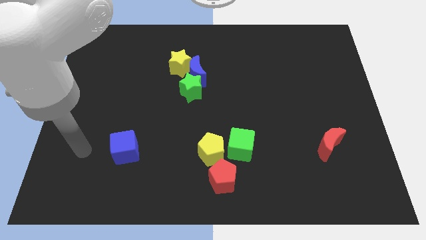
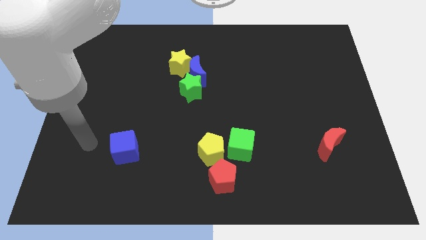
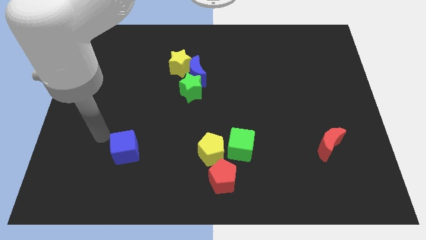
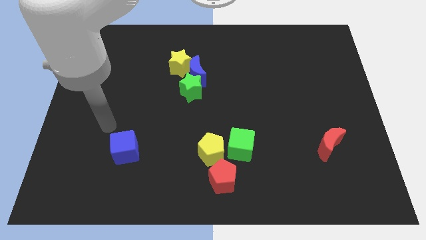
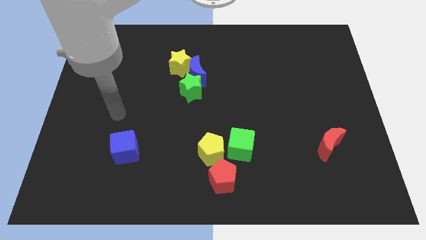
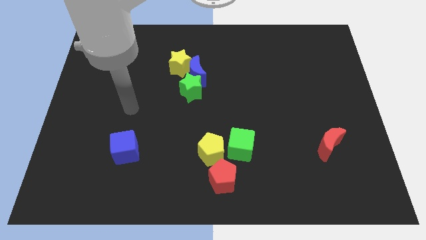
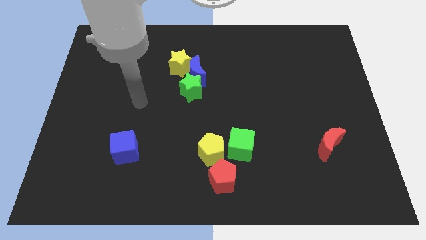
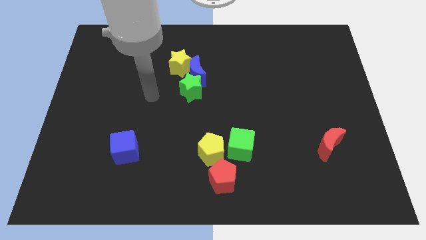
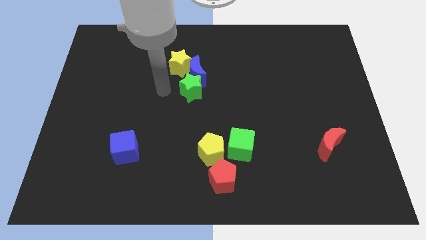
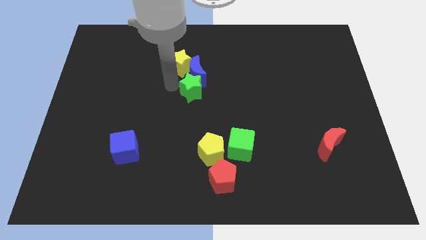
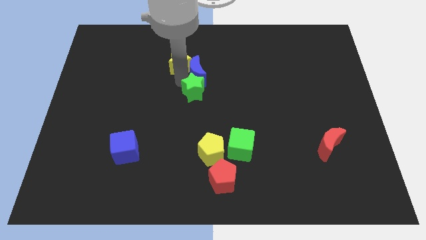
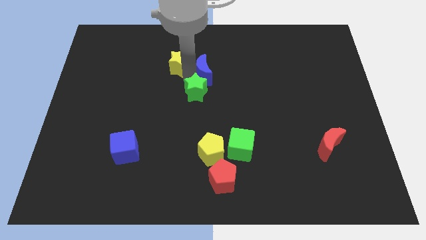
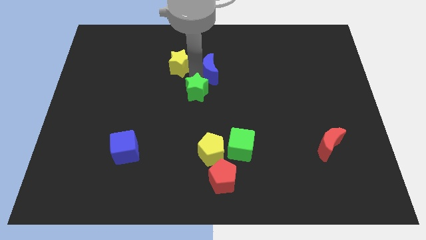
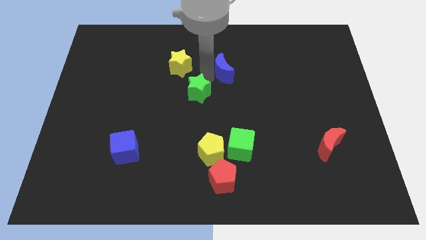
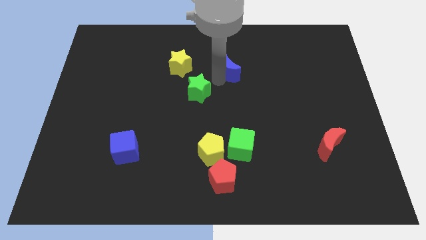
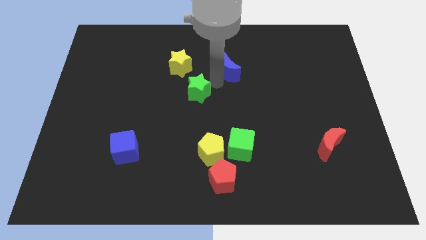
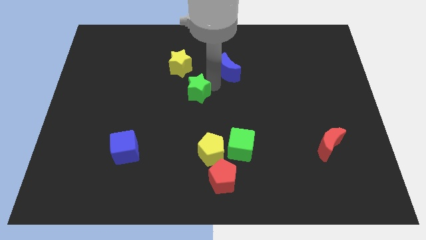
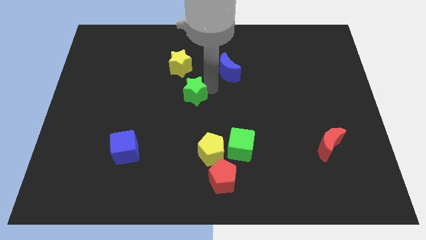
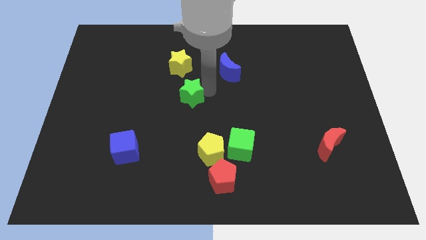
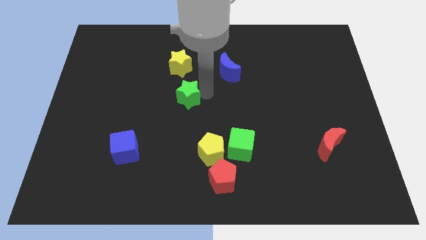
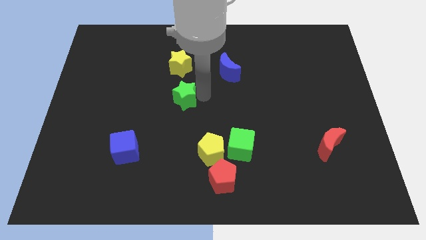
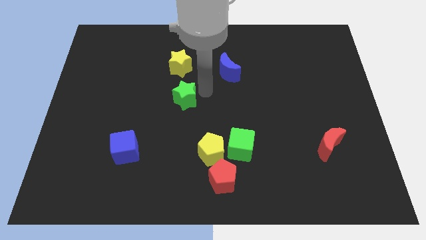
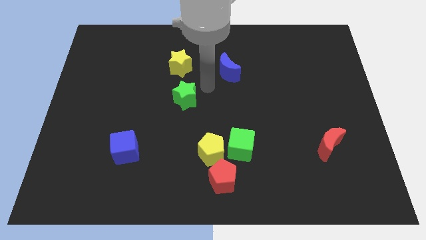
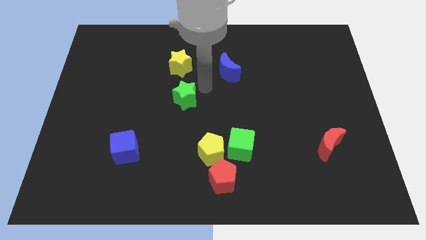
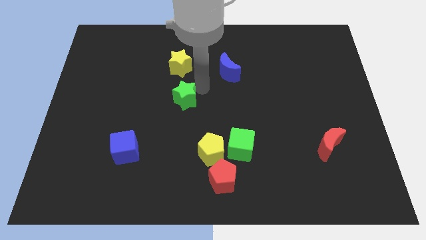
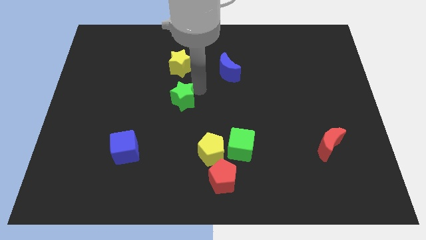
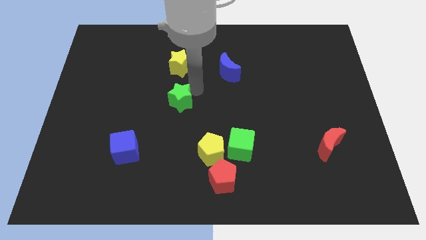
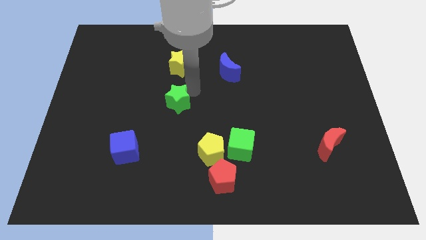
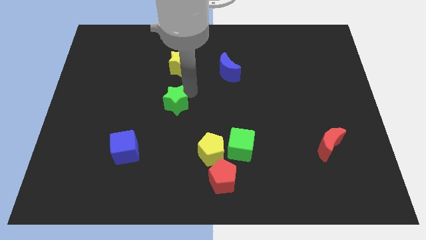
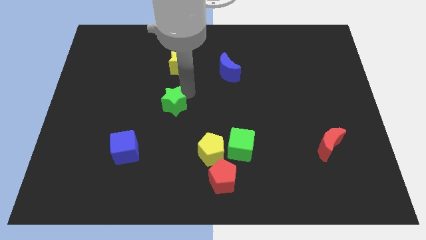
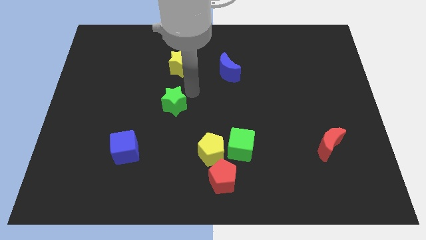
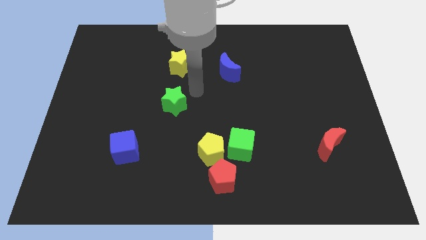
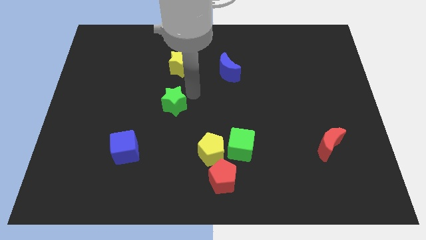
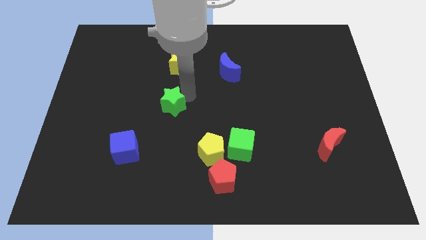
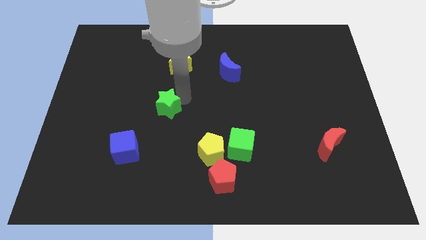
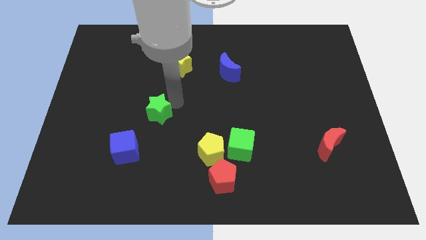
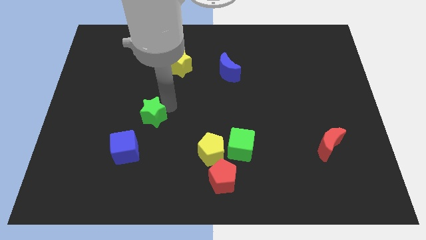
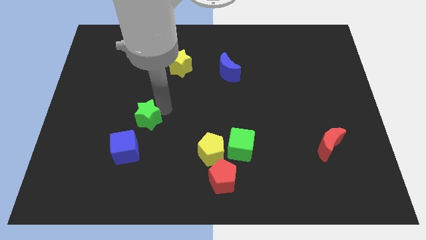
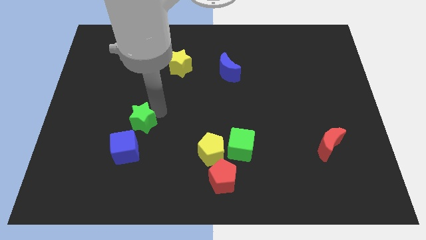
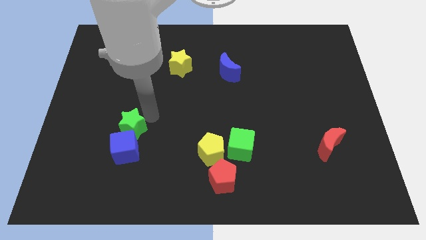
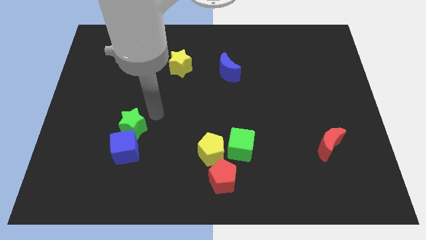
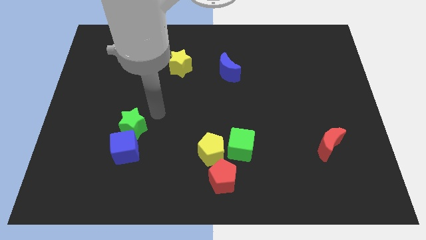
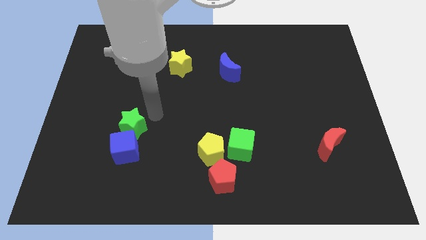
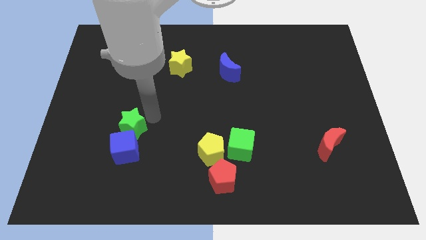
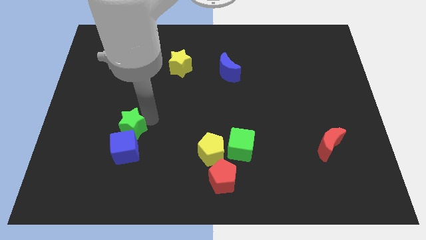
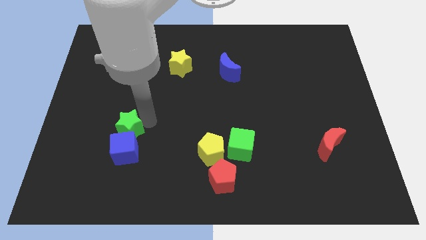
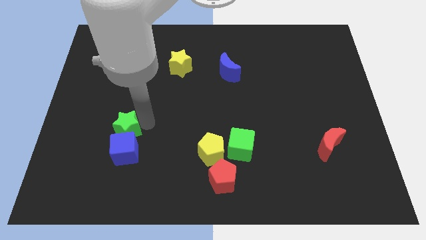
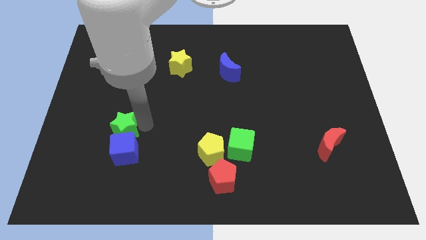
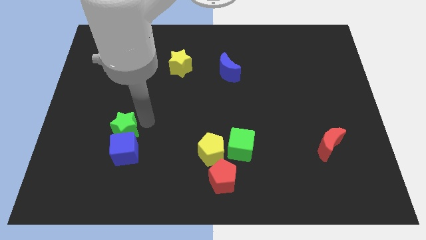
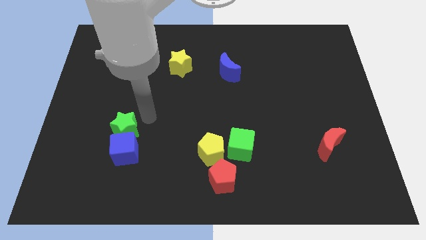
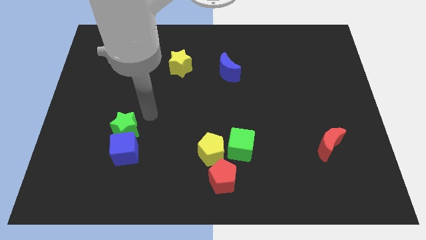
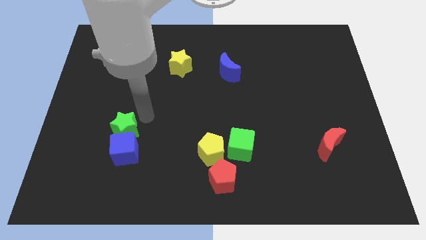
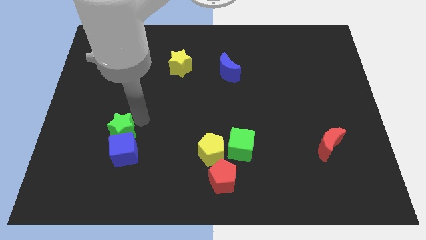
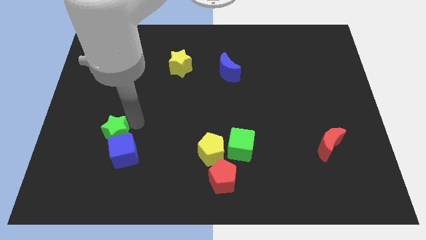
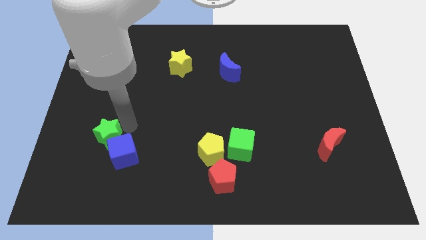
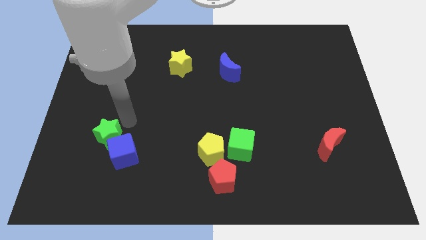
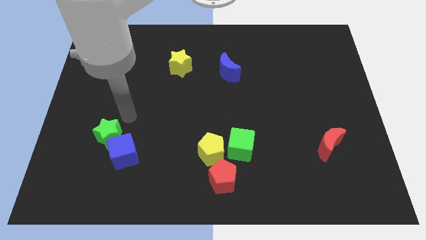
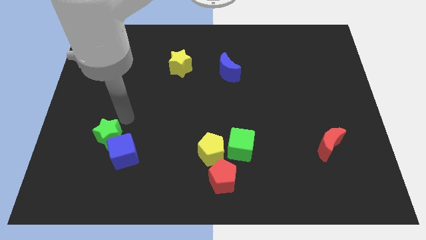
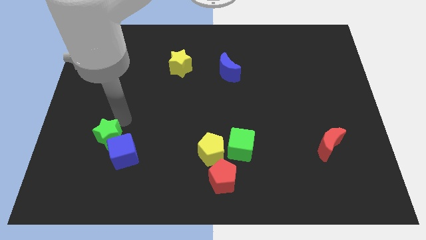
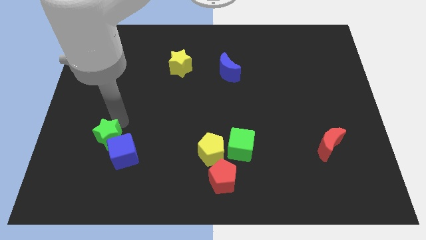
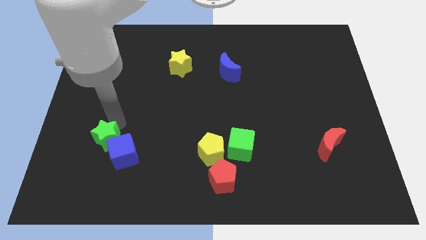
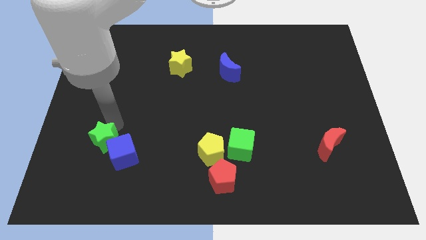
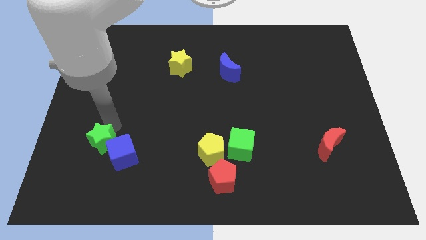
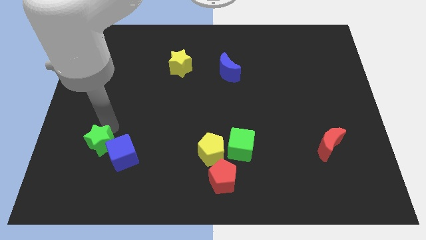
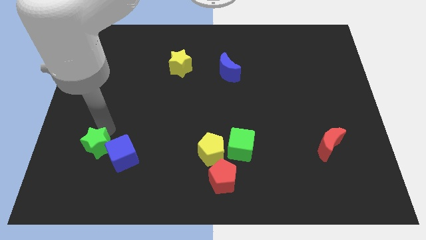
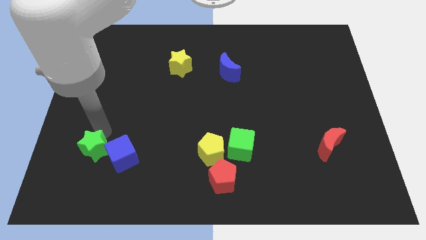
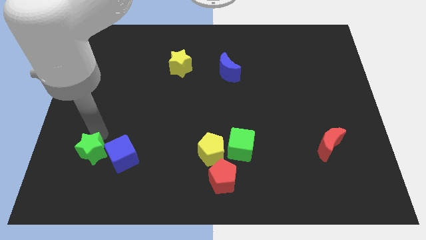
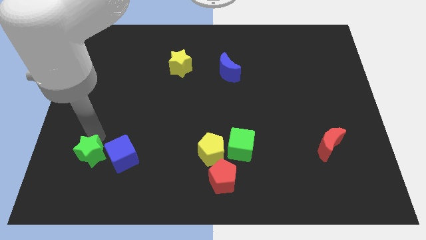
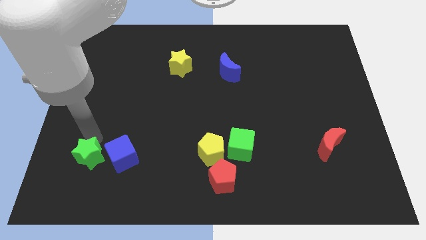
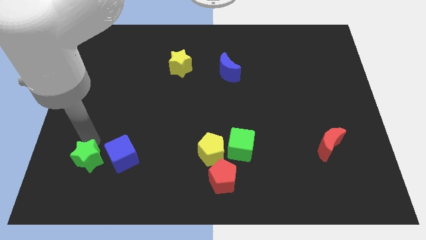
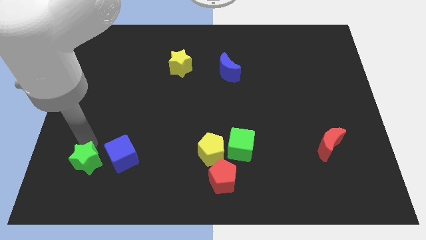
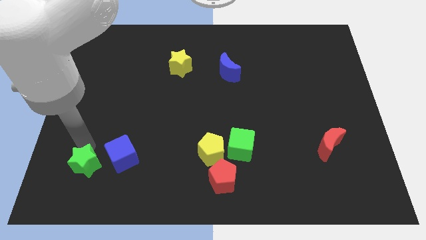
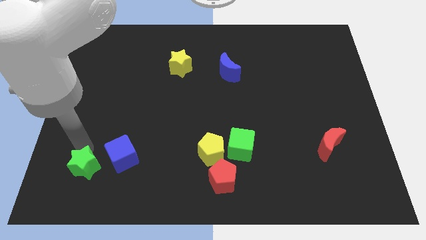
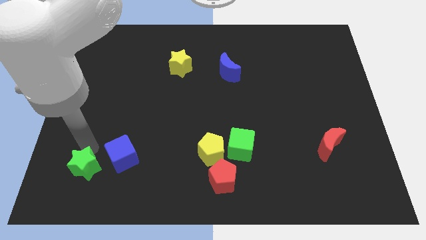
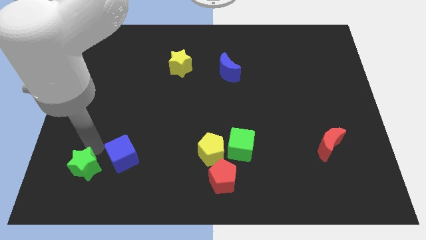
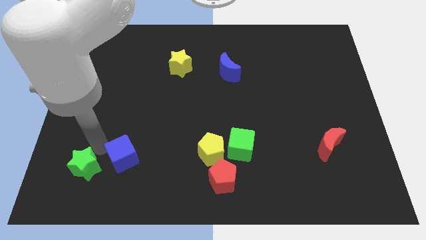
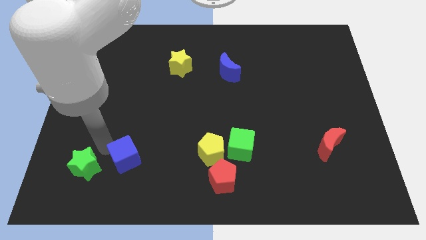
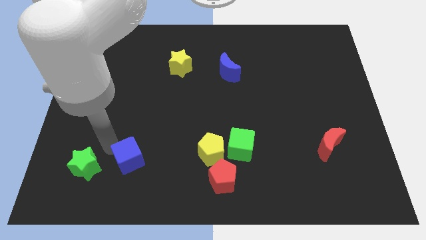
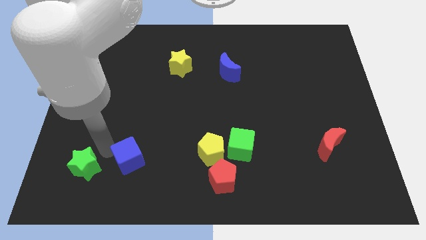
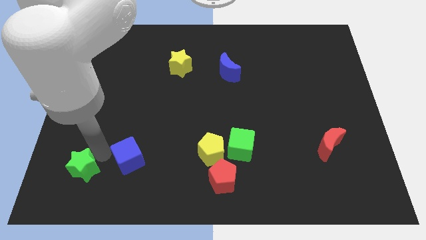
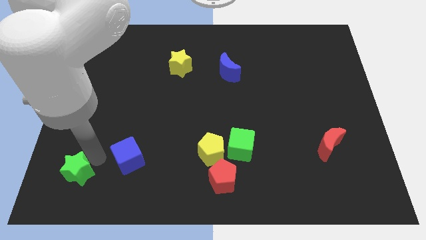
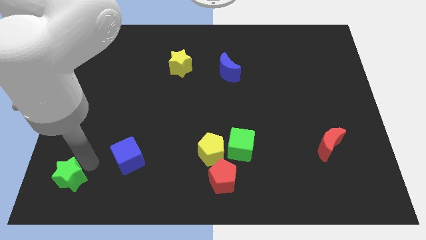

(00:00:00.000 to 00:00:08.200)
move the green star to the lower left corner
